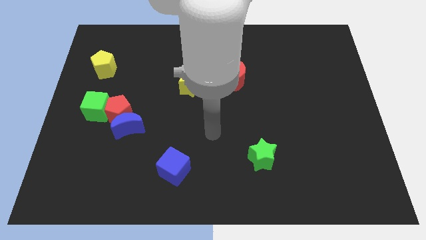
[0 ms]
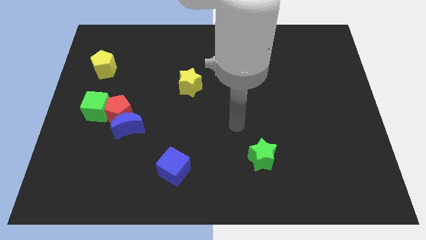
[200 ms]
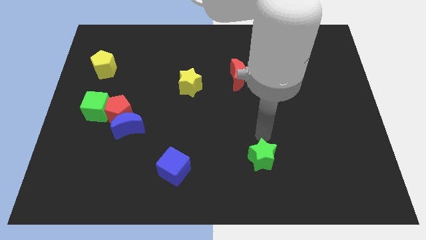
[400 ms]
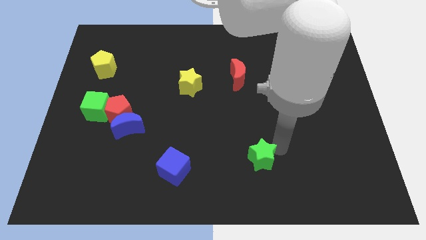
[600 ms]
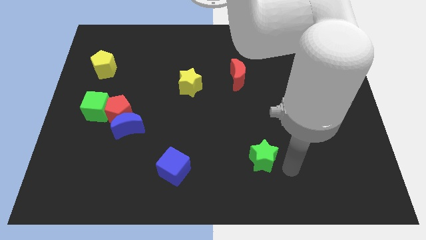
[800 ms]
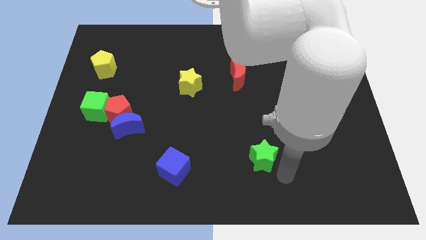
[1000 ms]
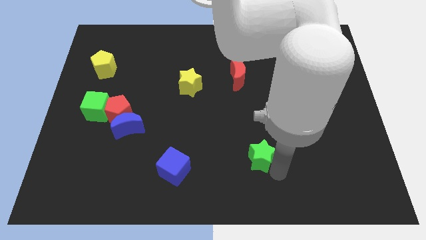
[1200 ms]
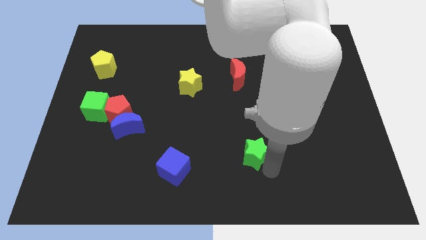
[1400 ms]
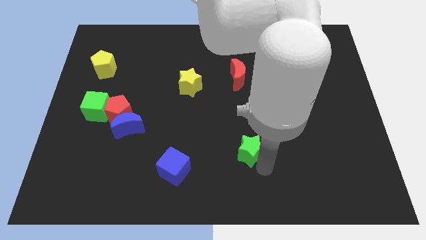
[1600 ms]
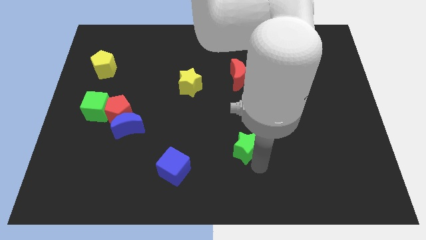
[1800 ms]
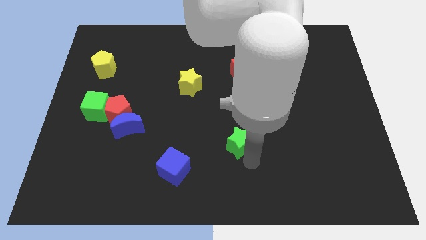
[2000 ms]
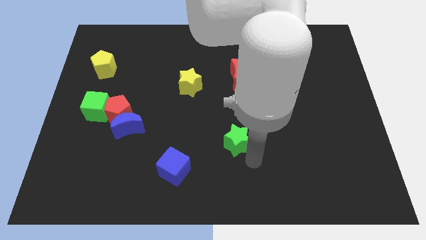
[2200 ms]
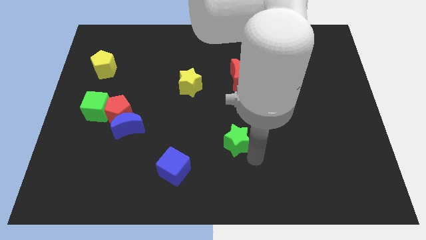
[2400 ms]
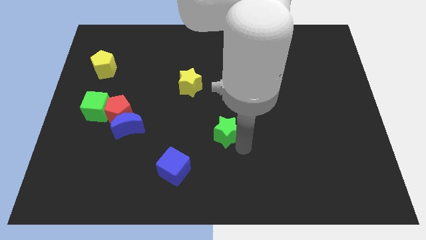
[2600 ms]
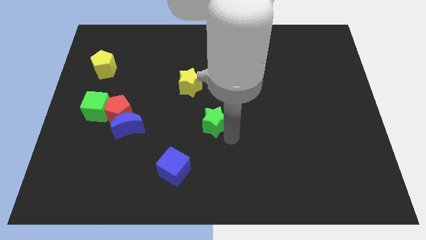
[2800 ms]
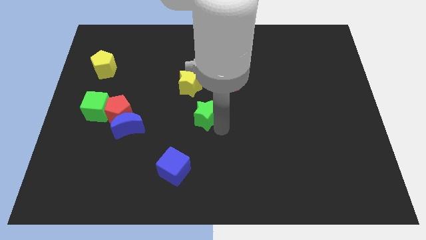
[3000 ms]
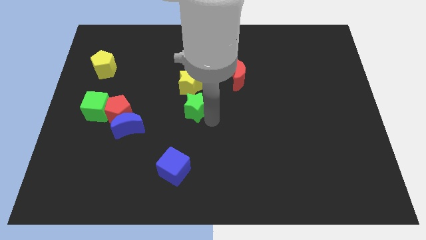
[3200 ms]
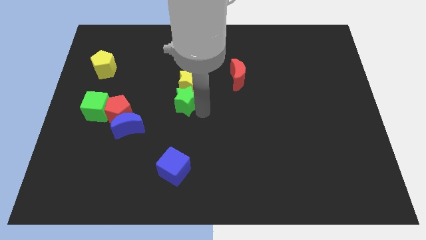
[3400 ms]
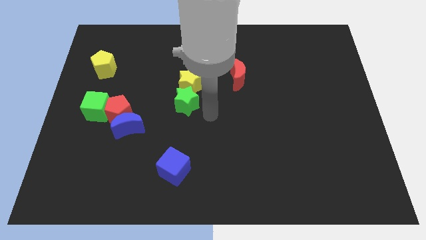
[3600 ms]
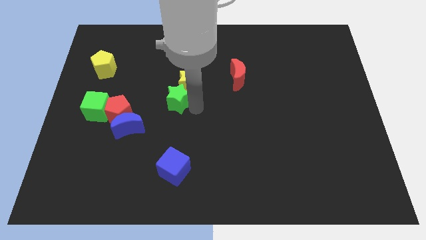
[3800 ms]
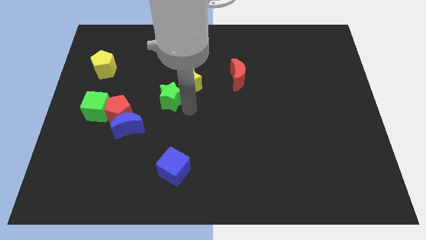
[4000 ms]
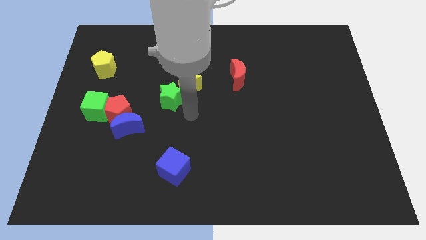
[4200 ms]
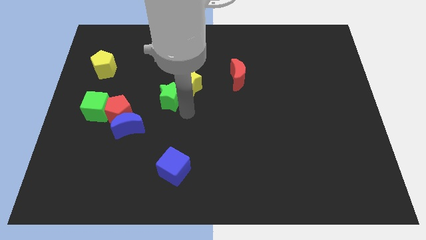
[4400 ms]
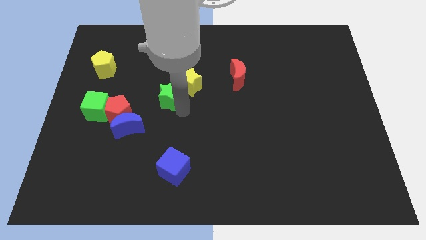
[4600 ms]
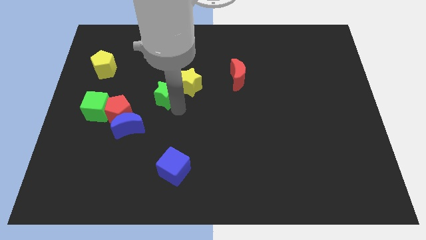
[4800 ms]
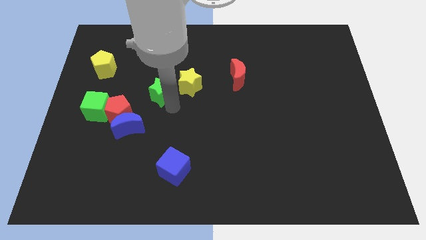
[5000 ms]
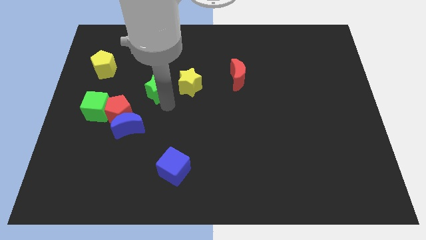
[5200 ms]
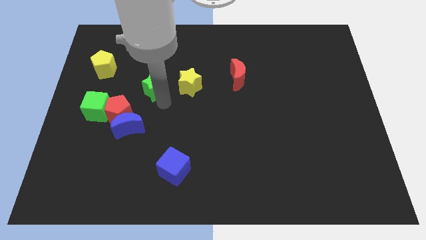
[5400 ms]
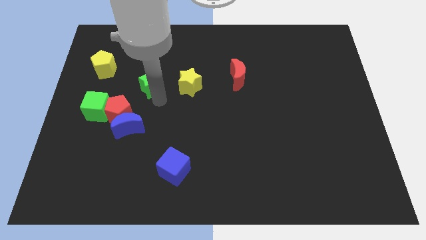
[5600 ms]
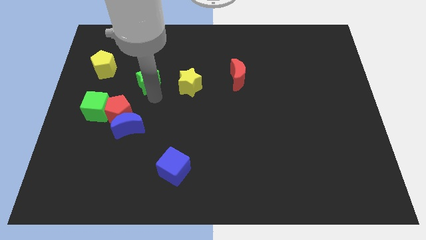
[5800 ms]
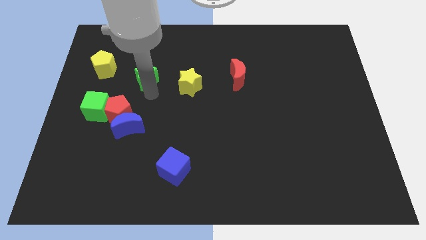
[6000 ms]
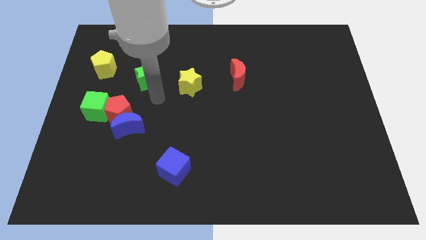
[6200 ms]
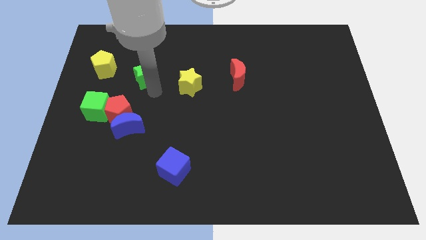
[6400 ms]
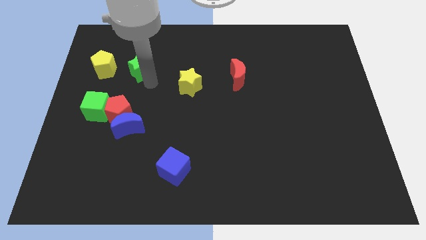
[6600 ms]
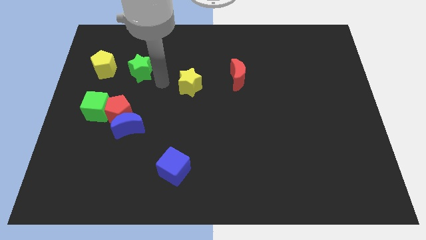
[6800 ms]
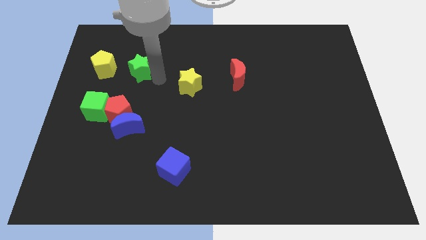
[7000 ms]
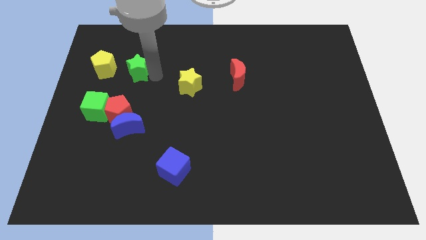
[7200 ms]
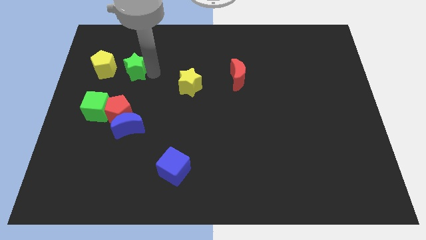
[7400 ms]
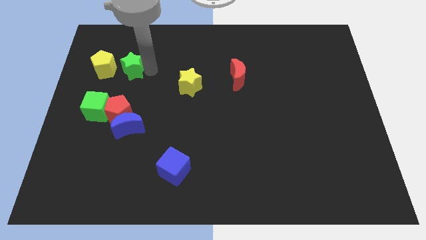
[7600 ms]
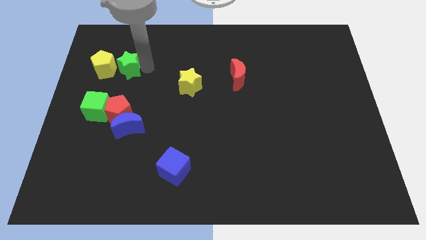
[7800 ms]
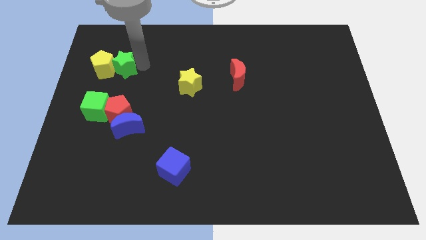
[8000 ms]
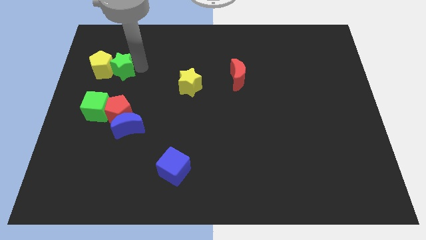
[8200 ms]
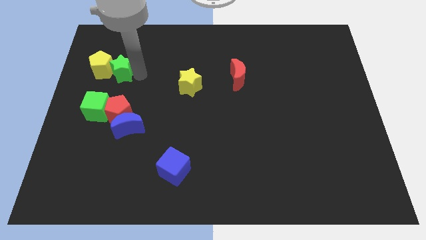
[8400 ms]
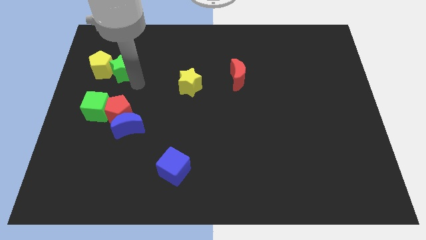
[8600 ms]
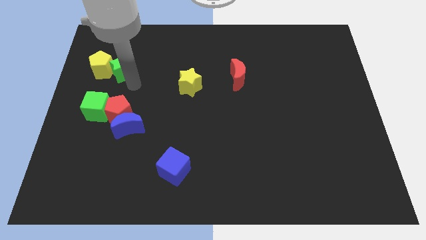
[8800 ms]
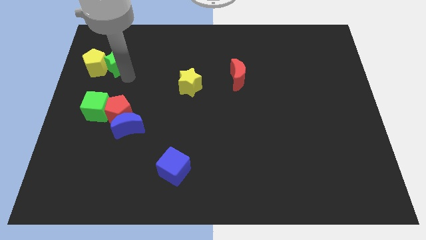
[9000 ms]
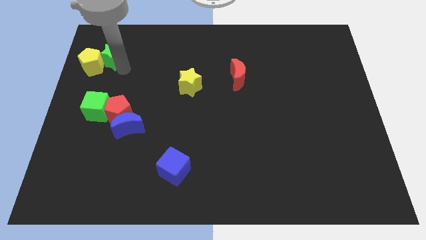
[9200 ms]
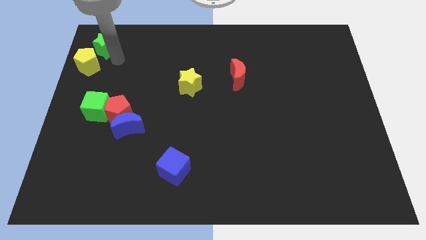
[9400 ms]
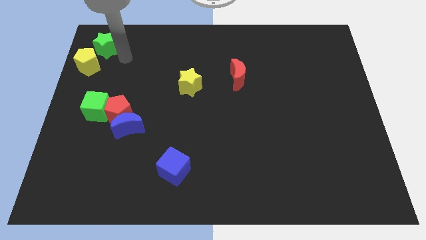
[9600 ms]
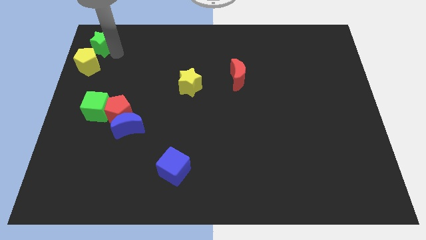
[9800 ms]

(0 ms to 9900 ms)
push the green star to the top left

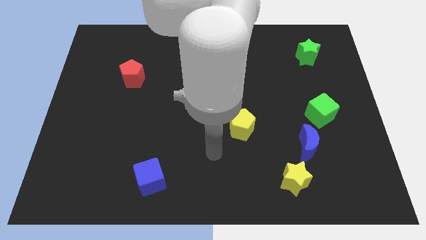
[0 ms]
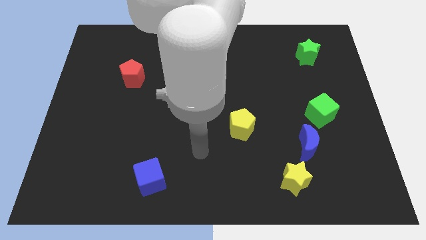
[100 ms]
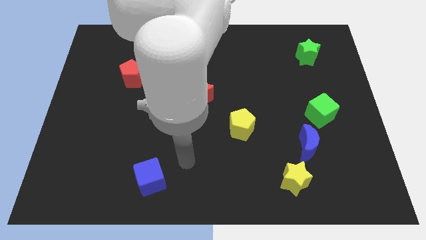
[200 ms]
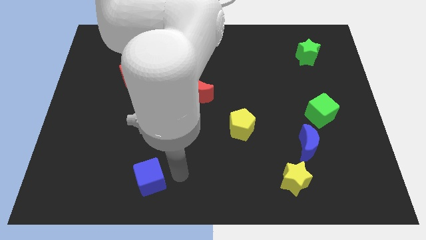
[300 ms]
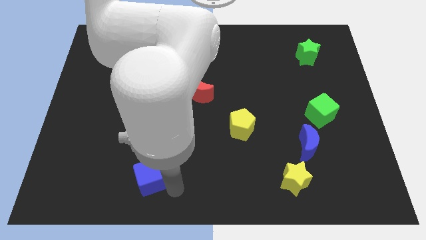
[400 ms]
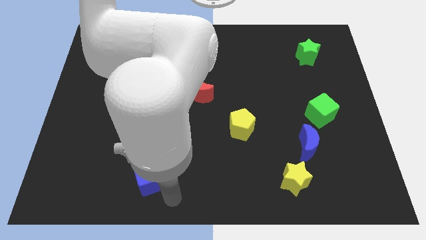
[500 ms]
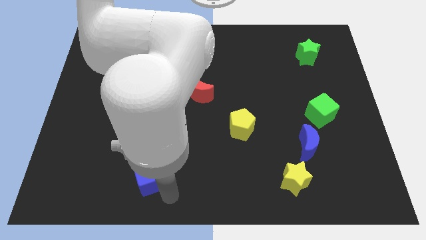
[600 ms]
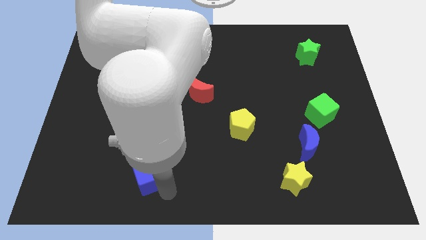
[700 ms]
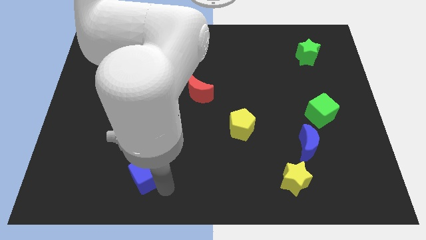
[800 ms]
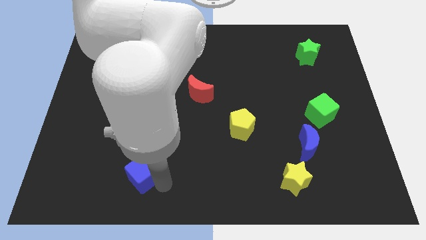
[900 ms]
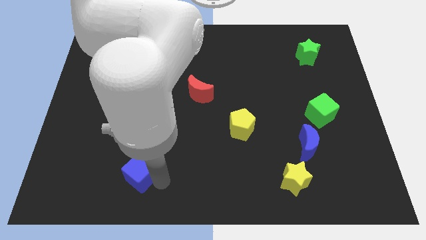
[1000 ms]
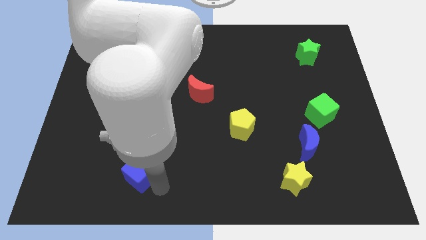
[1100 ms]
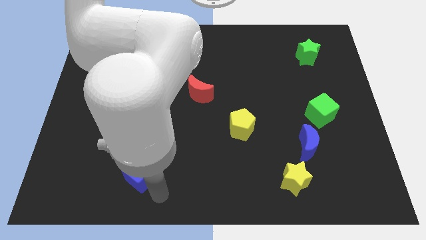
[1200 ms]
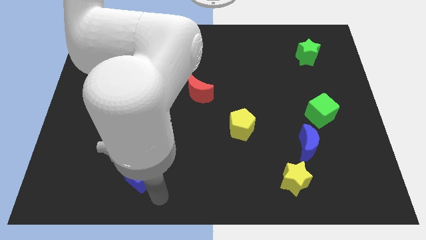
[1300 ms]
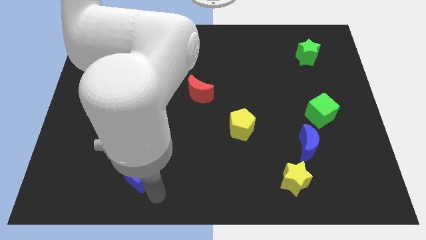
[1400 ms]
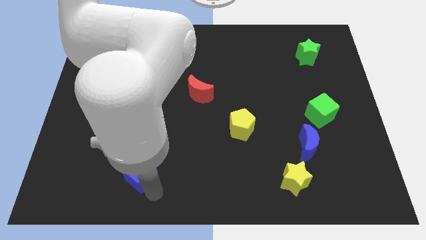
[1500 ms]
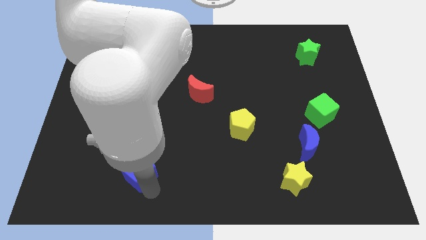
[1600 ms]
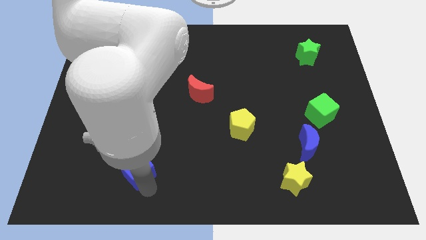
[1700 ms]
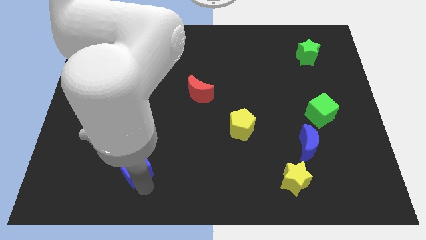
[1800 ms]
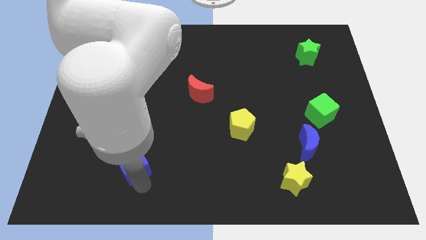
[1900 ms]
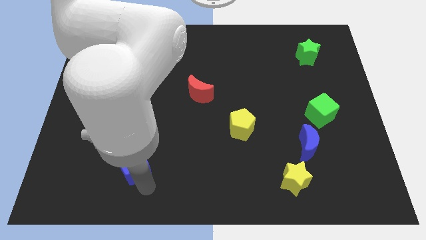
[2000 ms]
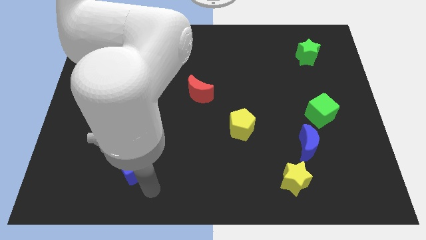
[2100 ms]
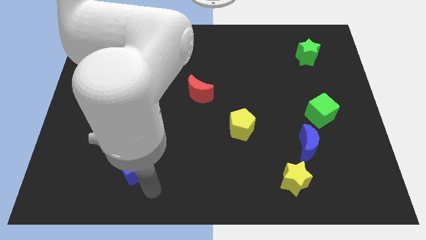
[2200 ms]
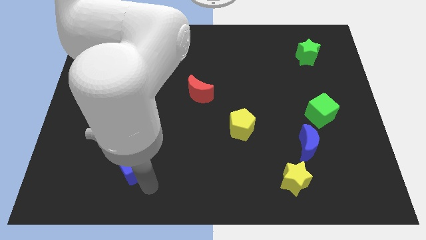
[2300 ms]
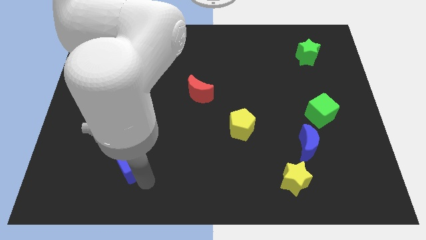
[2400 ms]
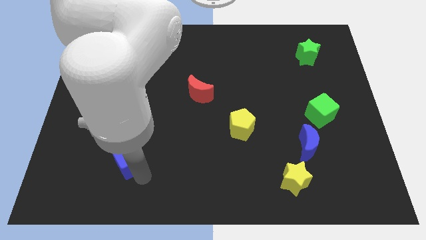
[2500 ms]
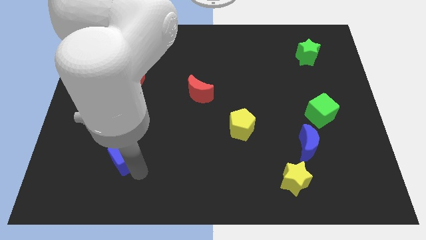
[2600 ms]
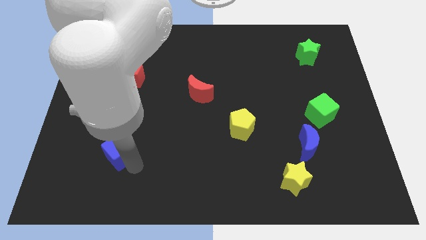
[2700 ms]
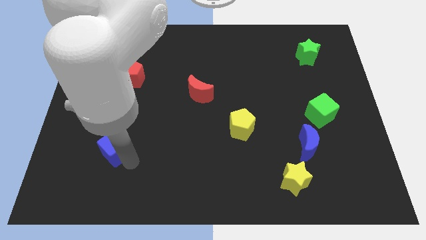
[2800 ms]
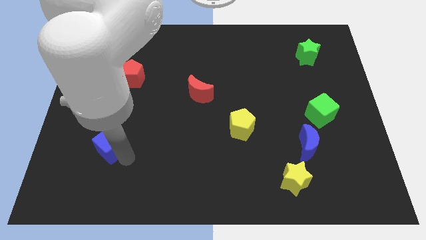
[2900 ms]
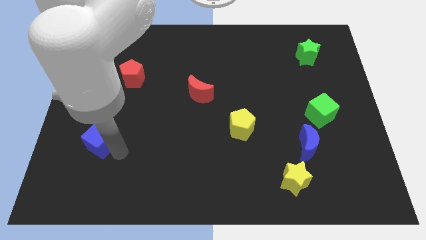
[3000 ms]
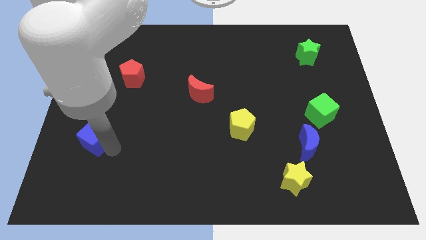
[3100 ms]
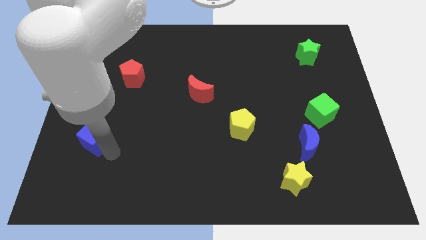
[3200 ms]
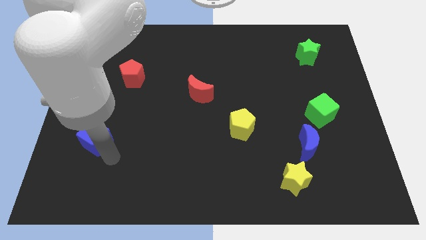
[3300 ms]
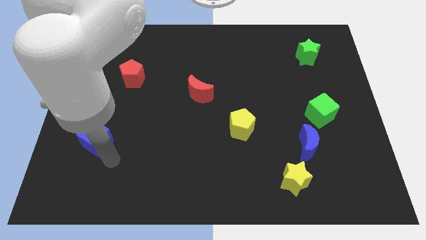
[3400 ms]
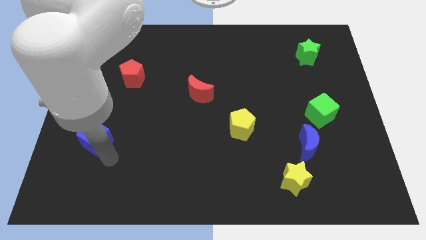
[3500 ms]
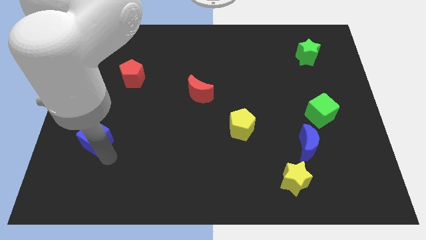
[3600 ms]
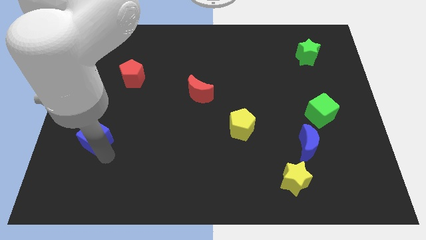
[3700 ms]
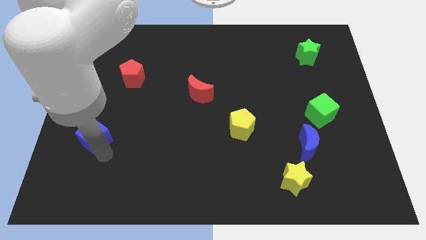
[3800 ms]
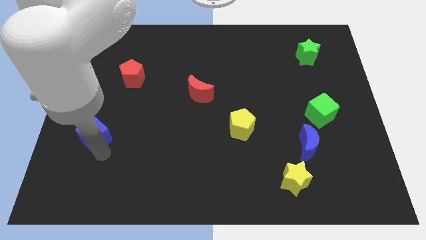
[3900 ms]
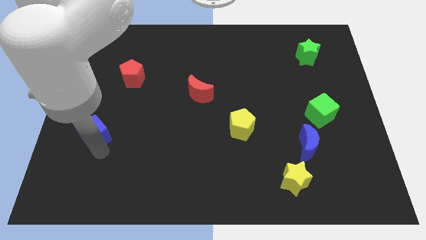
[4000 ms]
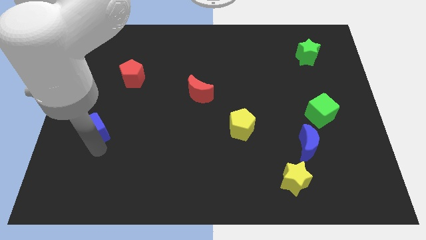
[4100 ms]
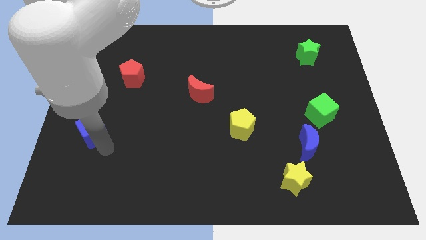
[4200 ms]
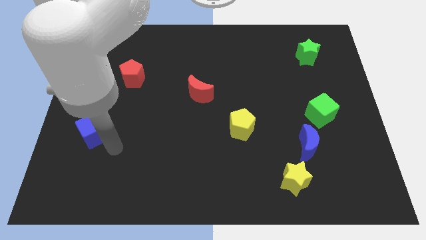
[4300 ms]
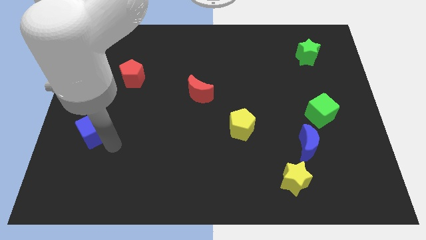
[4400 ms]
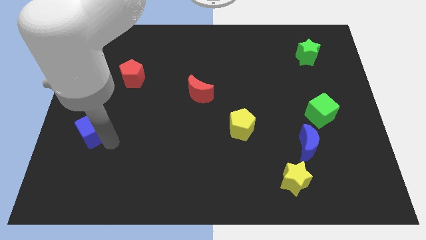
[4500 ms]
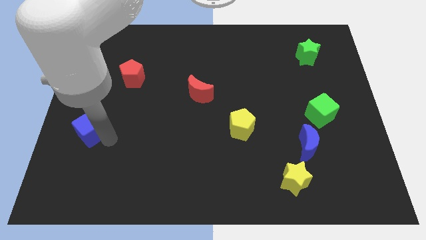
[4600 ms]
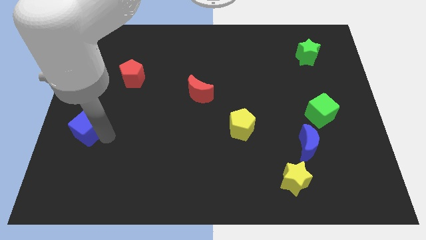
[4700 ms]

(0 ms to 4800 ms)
push the blue cube to the left side of the board
